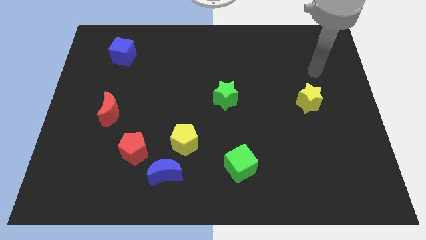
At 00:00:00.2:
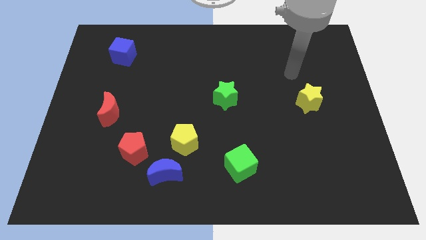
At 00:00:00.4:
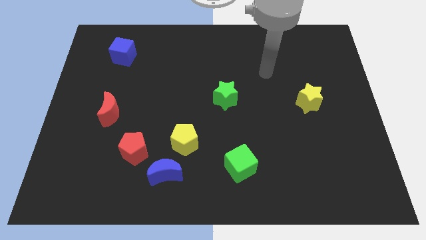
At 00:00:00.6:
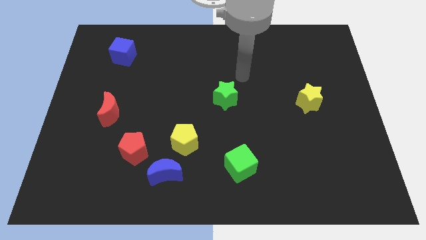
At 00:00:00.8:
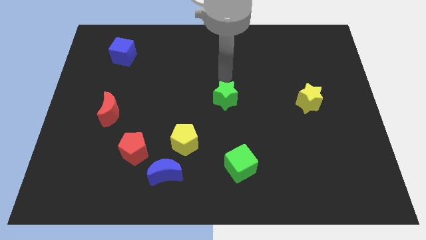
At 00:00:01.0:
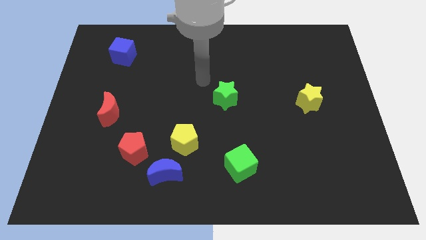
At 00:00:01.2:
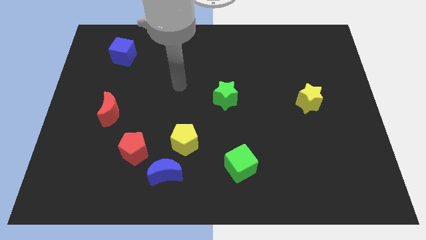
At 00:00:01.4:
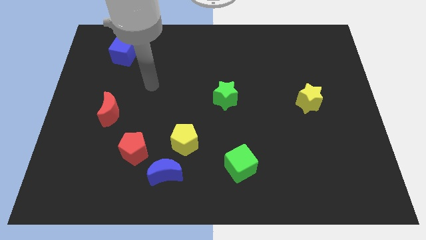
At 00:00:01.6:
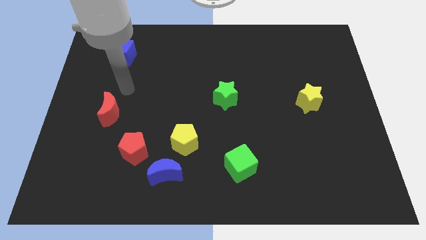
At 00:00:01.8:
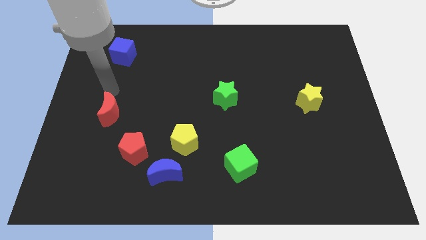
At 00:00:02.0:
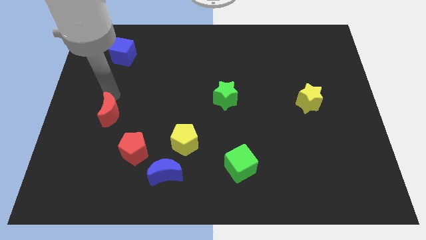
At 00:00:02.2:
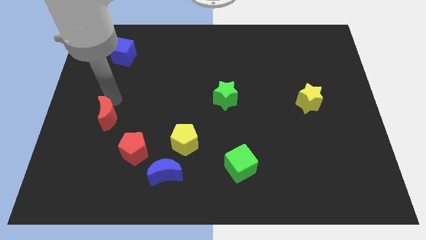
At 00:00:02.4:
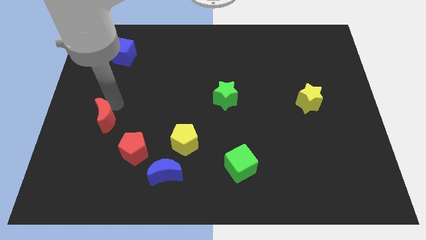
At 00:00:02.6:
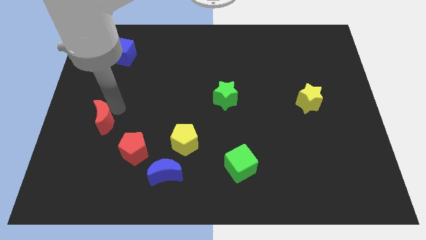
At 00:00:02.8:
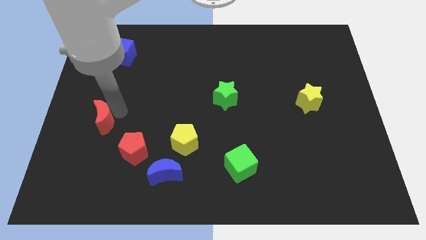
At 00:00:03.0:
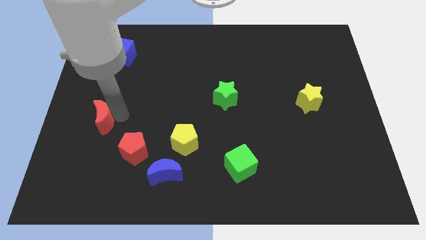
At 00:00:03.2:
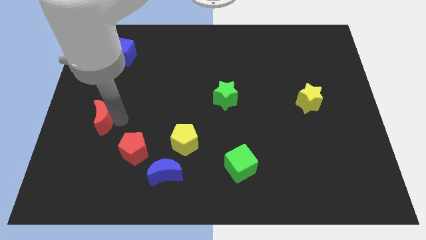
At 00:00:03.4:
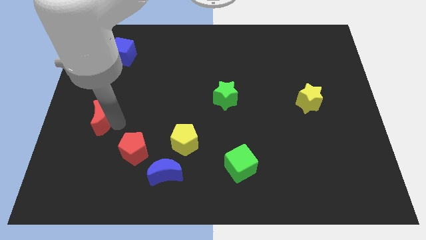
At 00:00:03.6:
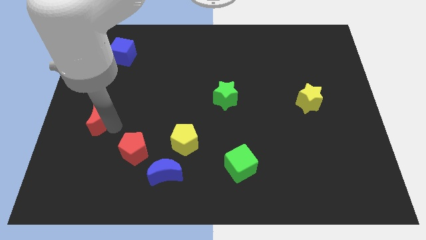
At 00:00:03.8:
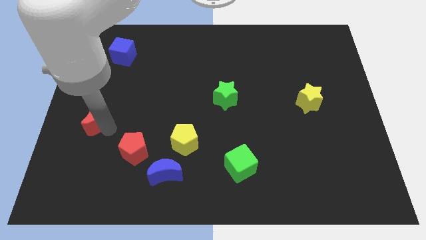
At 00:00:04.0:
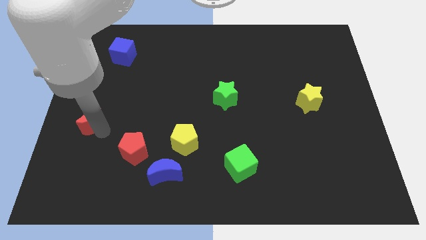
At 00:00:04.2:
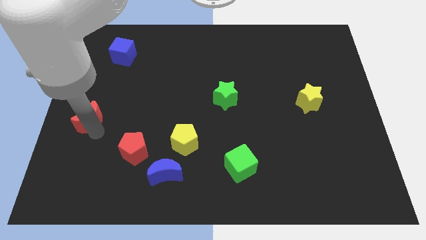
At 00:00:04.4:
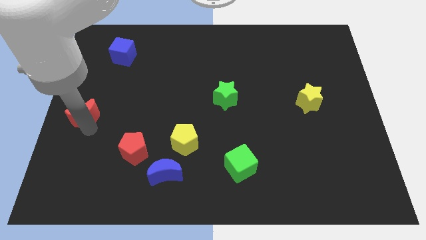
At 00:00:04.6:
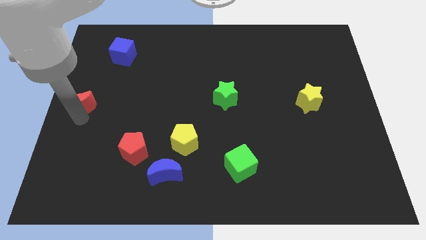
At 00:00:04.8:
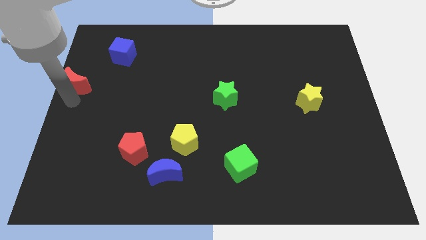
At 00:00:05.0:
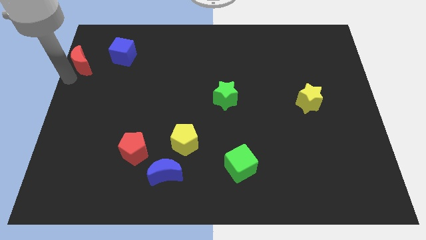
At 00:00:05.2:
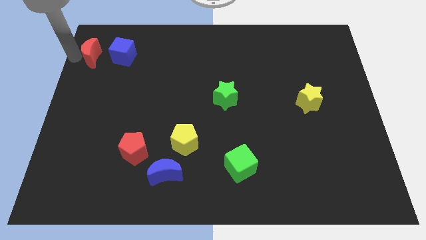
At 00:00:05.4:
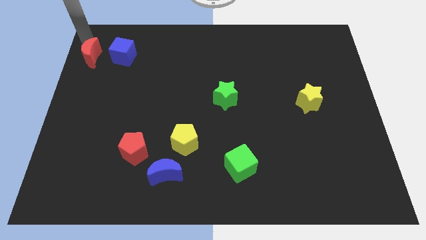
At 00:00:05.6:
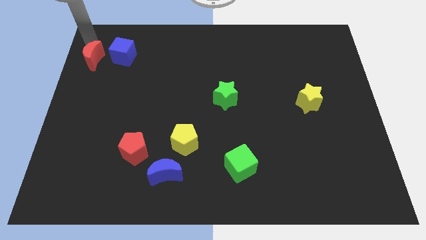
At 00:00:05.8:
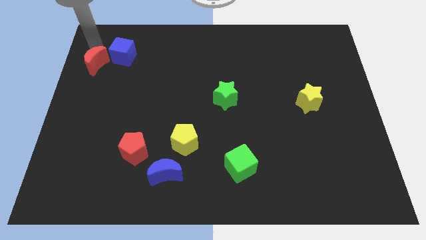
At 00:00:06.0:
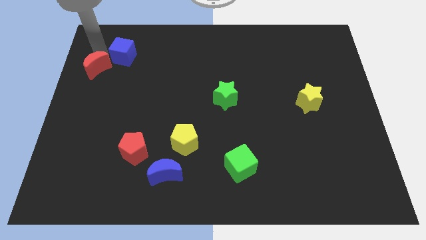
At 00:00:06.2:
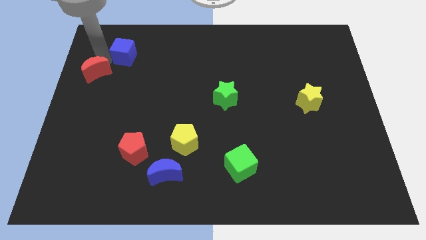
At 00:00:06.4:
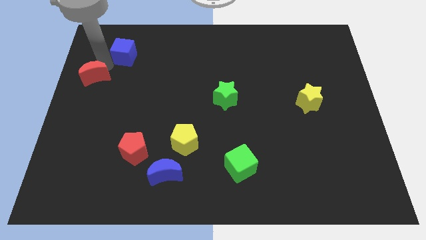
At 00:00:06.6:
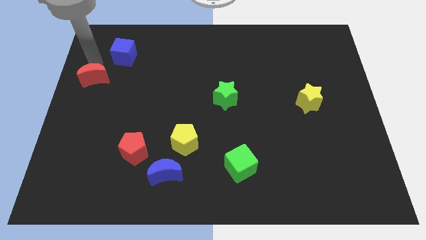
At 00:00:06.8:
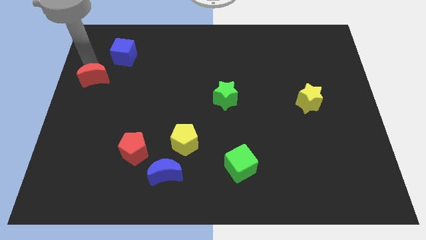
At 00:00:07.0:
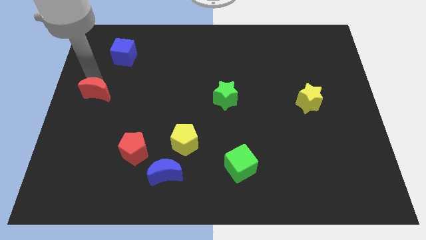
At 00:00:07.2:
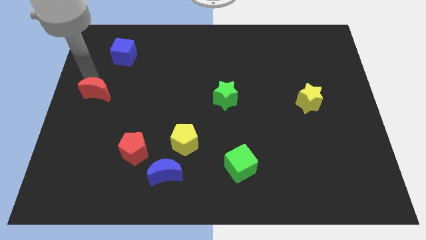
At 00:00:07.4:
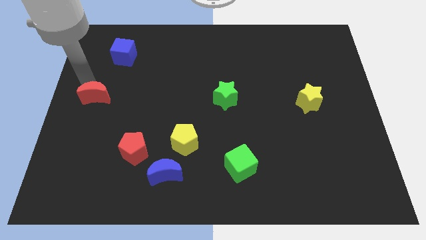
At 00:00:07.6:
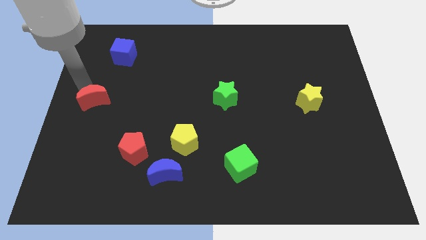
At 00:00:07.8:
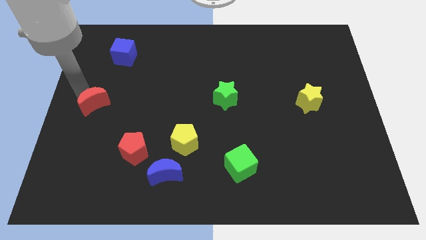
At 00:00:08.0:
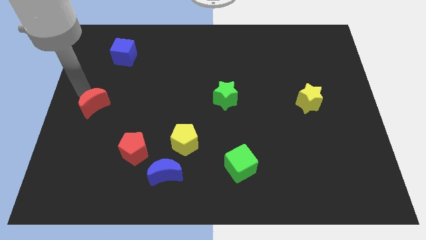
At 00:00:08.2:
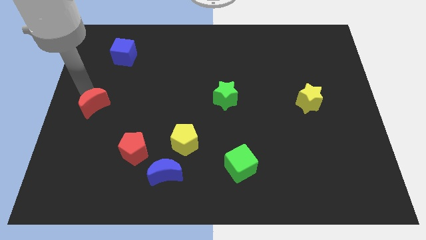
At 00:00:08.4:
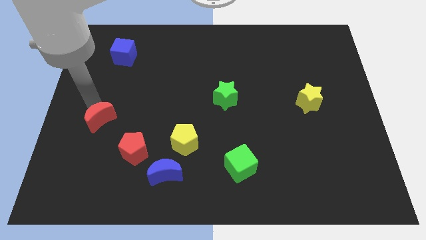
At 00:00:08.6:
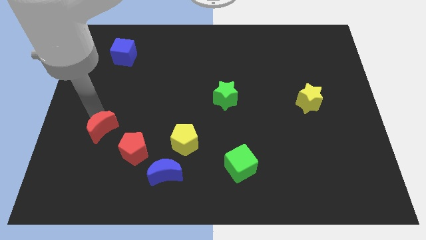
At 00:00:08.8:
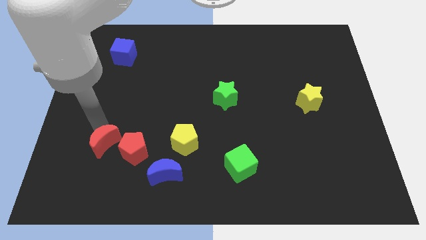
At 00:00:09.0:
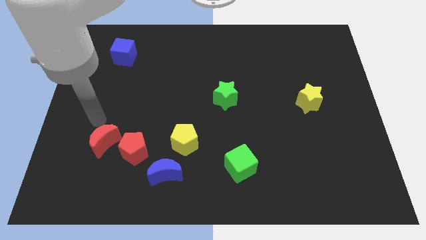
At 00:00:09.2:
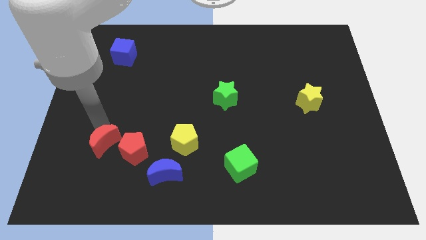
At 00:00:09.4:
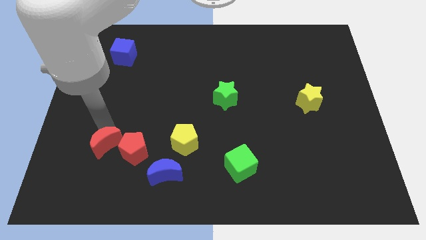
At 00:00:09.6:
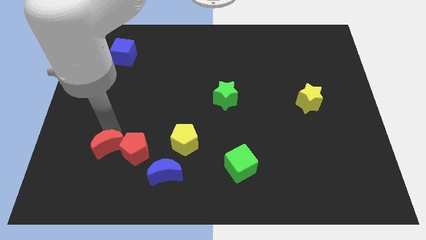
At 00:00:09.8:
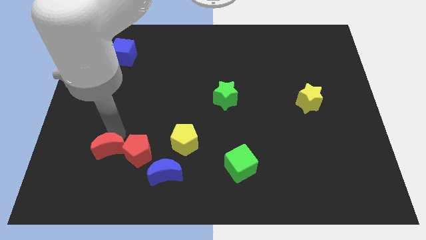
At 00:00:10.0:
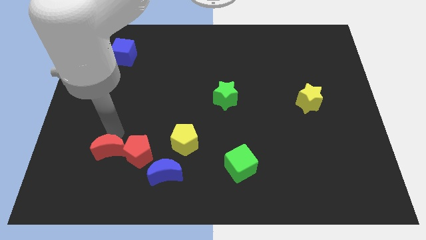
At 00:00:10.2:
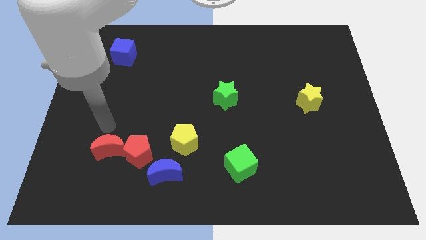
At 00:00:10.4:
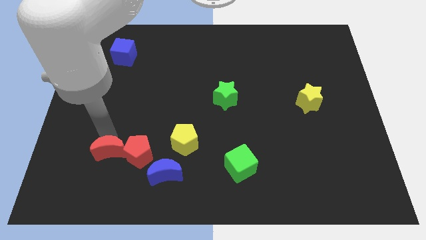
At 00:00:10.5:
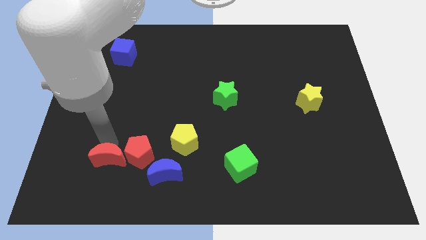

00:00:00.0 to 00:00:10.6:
push the red moon to the left of the blue moon

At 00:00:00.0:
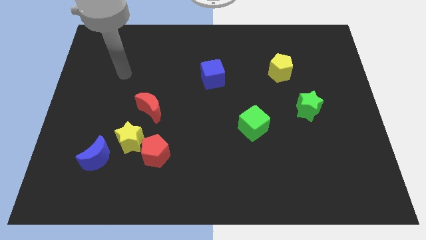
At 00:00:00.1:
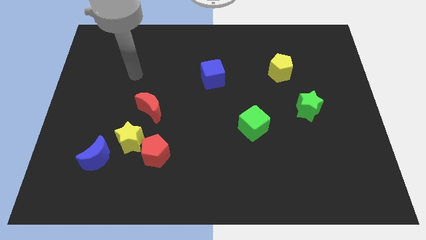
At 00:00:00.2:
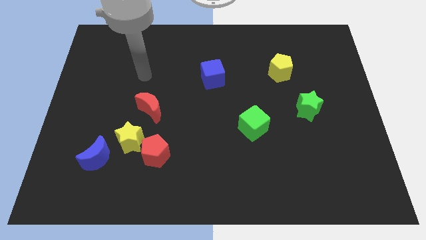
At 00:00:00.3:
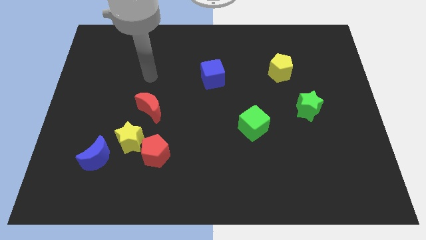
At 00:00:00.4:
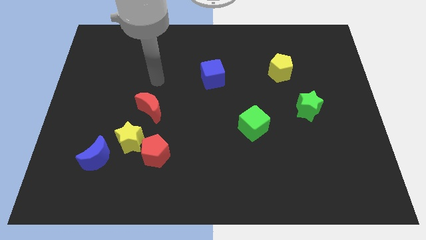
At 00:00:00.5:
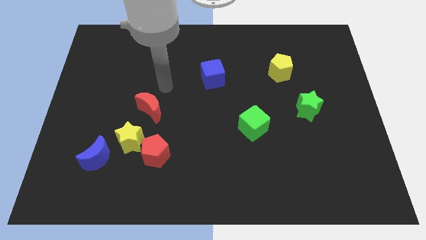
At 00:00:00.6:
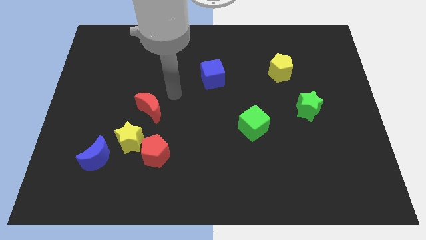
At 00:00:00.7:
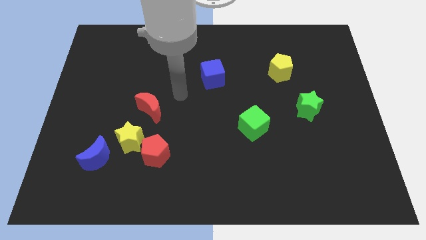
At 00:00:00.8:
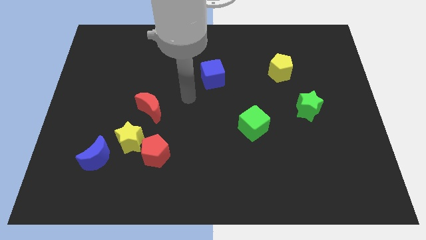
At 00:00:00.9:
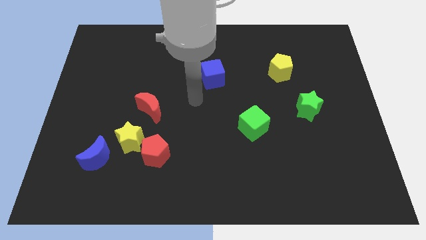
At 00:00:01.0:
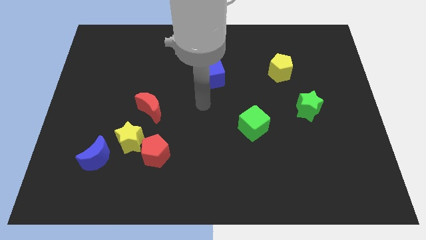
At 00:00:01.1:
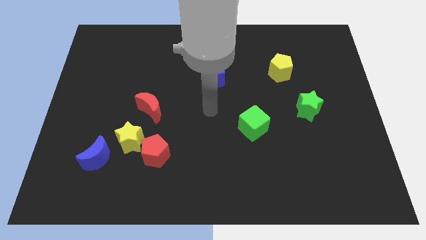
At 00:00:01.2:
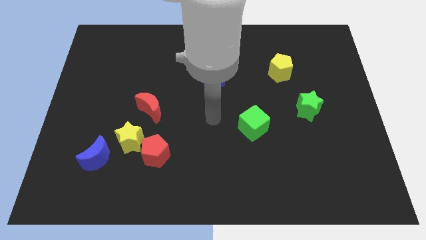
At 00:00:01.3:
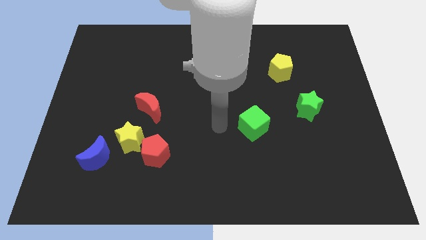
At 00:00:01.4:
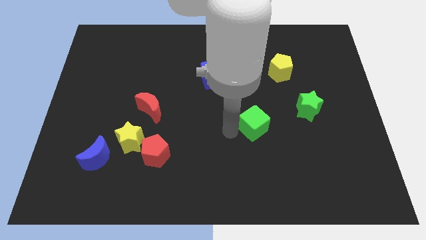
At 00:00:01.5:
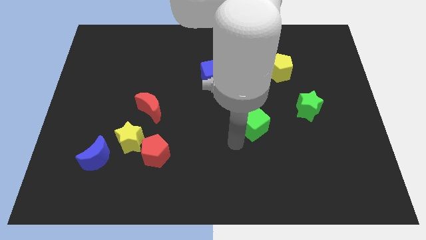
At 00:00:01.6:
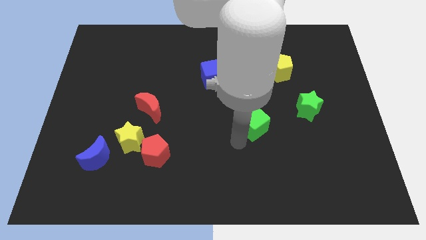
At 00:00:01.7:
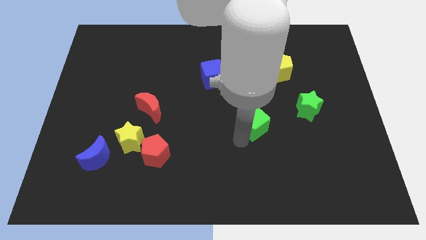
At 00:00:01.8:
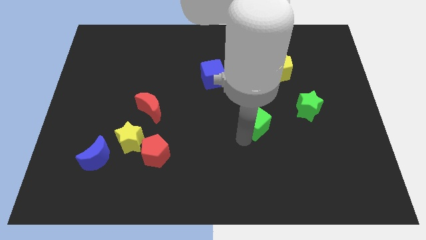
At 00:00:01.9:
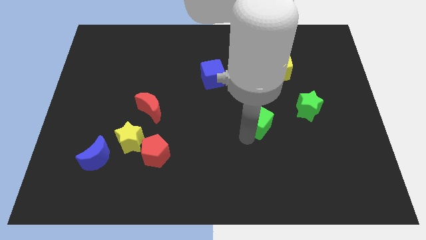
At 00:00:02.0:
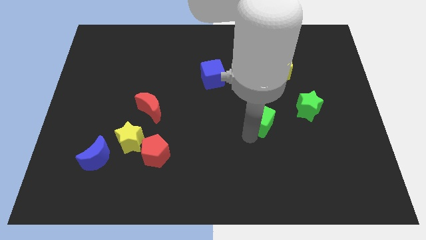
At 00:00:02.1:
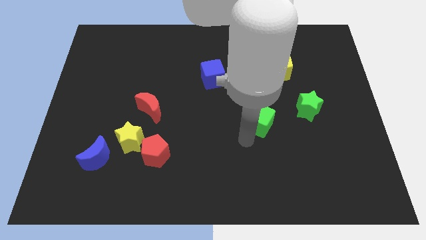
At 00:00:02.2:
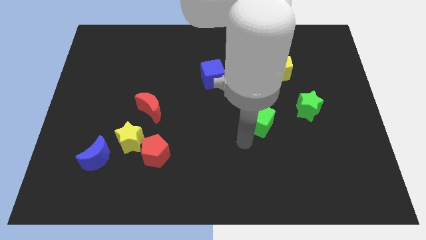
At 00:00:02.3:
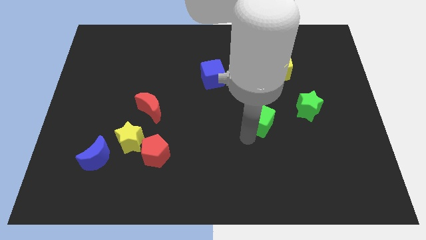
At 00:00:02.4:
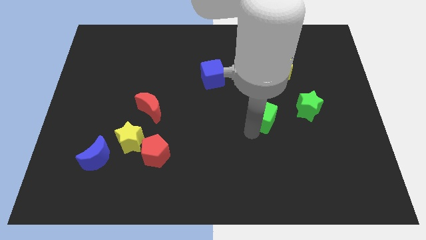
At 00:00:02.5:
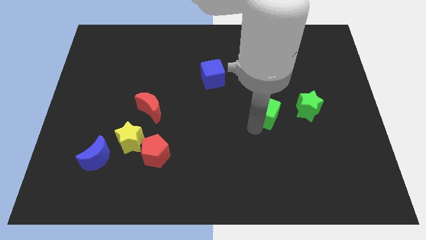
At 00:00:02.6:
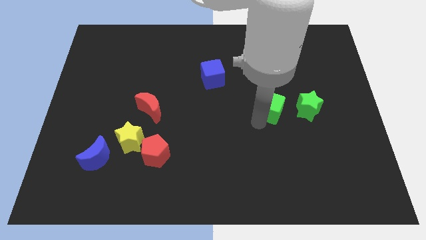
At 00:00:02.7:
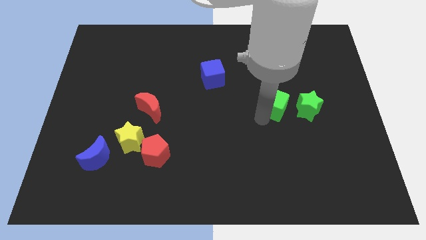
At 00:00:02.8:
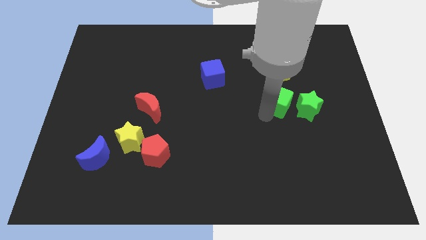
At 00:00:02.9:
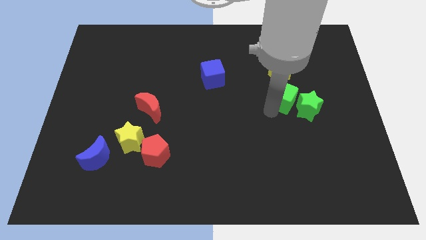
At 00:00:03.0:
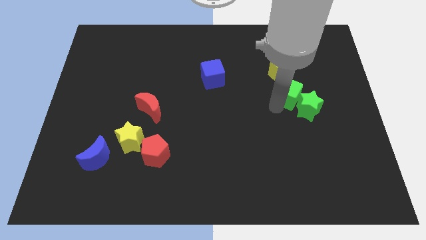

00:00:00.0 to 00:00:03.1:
slide the green cube to the top of the green star
